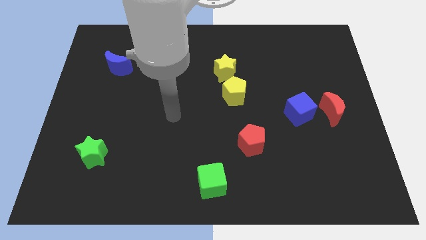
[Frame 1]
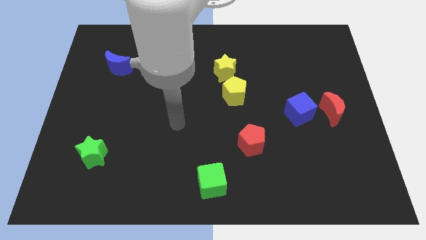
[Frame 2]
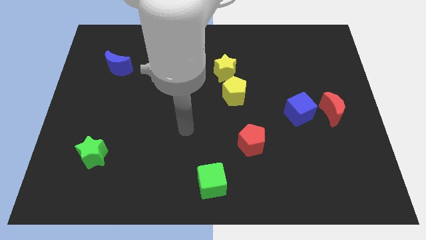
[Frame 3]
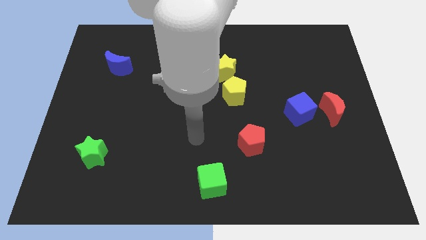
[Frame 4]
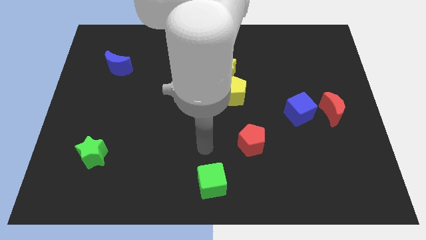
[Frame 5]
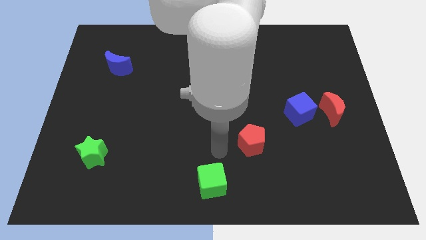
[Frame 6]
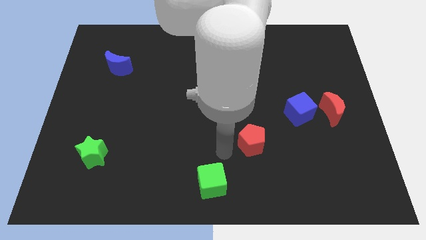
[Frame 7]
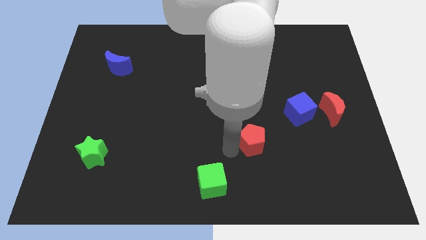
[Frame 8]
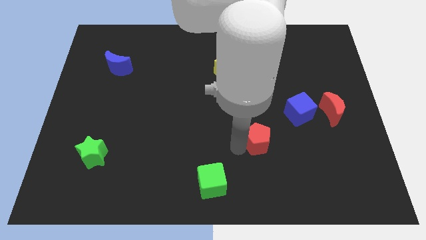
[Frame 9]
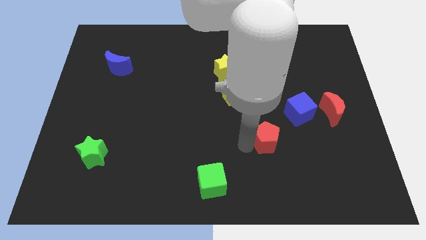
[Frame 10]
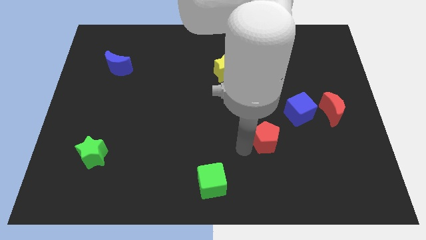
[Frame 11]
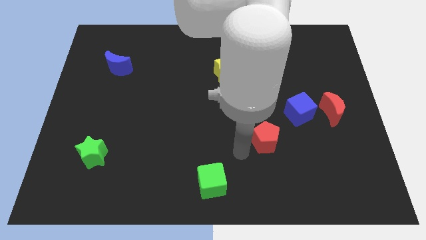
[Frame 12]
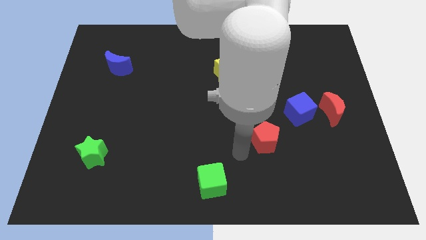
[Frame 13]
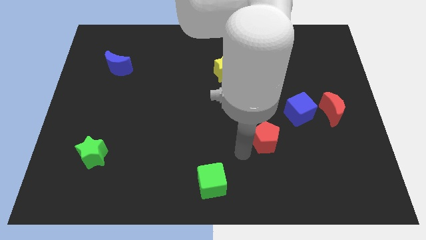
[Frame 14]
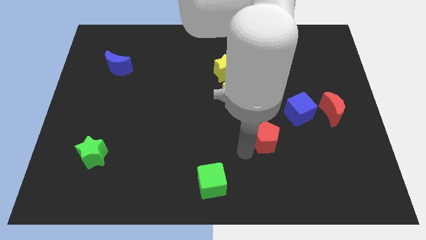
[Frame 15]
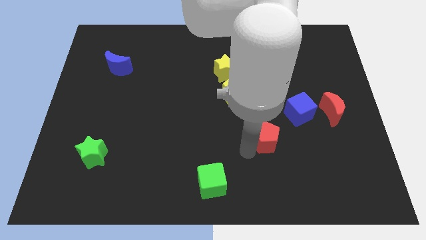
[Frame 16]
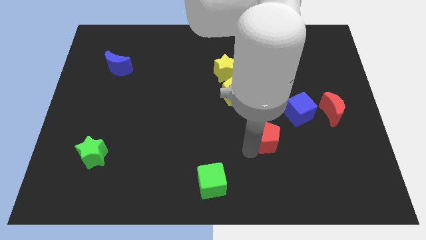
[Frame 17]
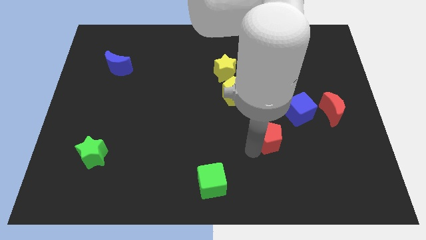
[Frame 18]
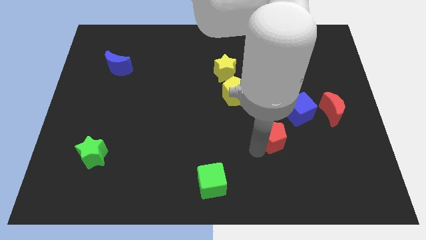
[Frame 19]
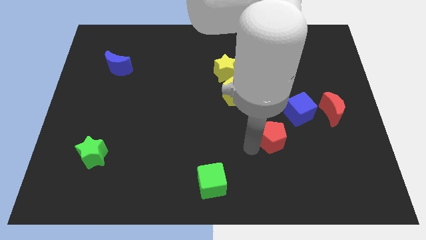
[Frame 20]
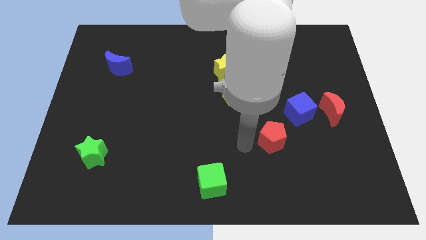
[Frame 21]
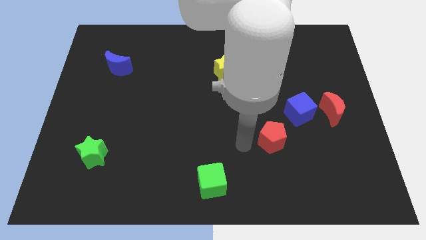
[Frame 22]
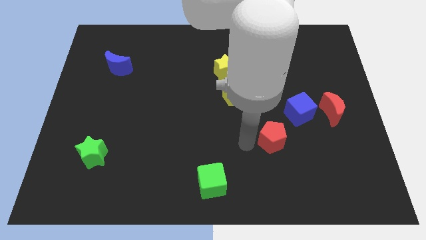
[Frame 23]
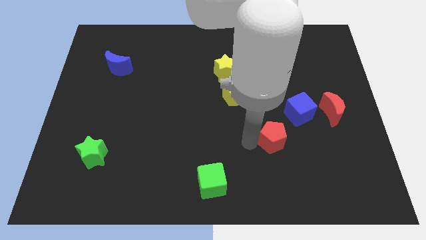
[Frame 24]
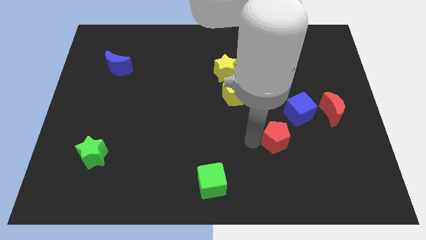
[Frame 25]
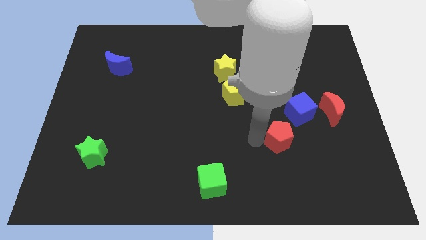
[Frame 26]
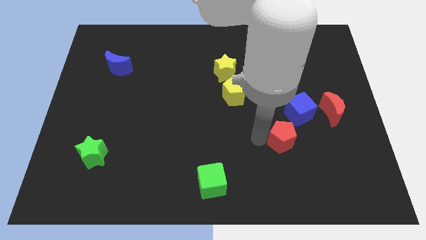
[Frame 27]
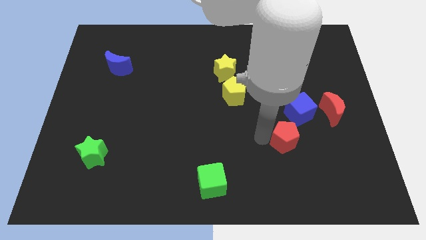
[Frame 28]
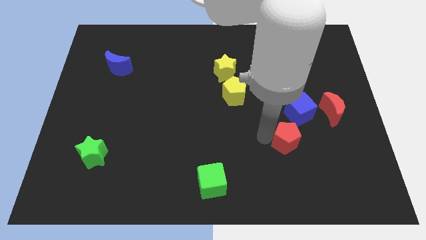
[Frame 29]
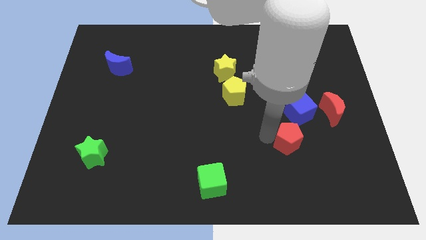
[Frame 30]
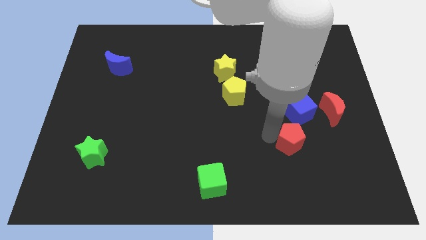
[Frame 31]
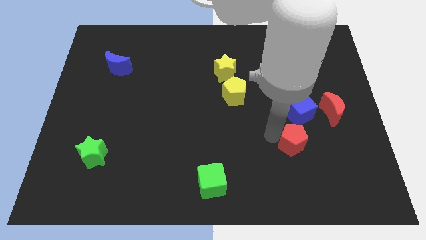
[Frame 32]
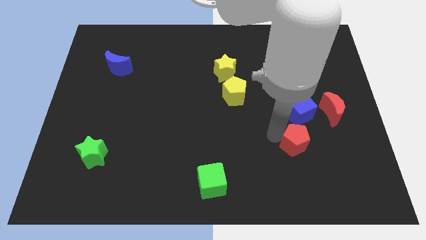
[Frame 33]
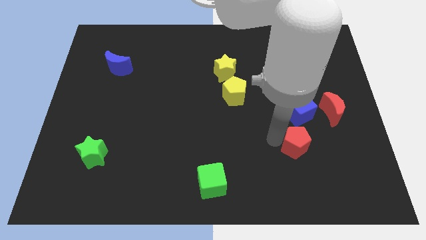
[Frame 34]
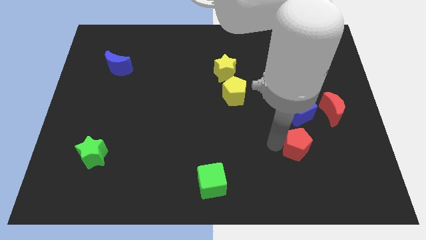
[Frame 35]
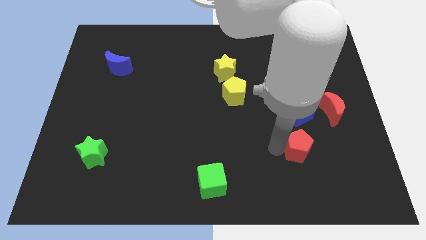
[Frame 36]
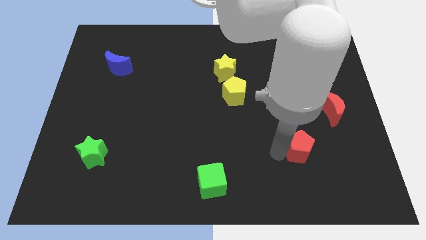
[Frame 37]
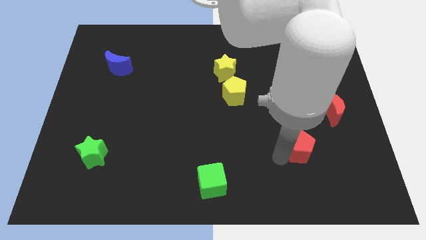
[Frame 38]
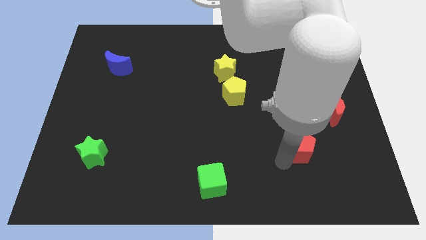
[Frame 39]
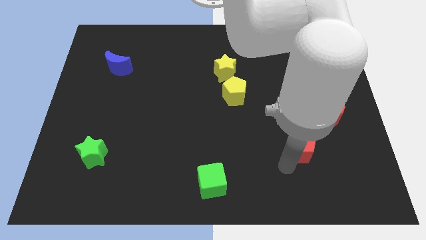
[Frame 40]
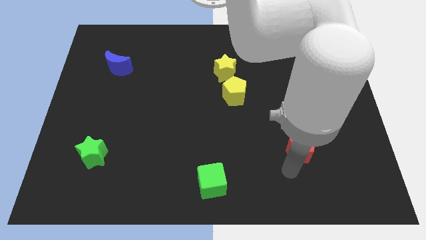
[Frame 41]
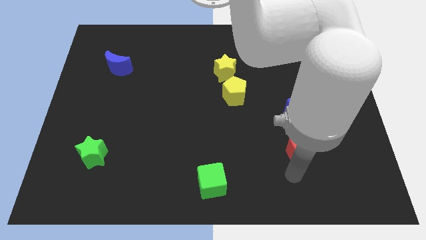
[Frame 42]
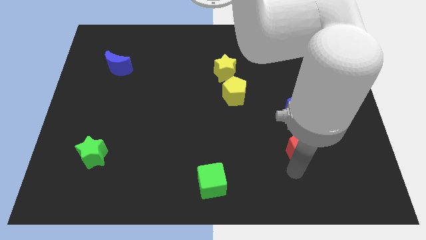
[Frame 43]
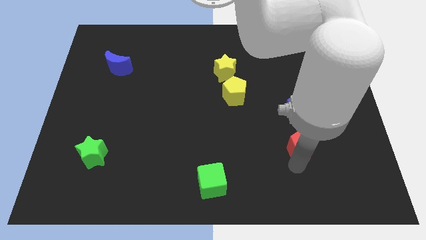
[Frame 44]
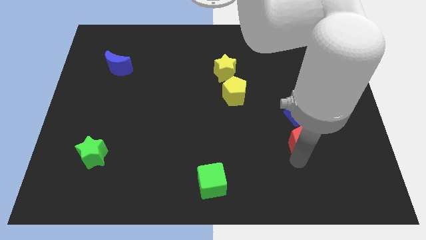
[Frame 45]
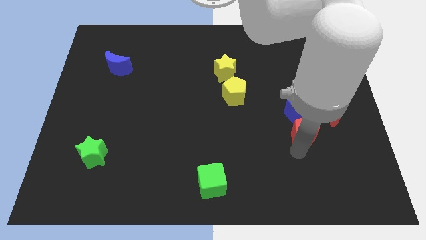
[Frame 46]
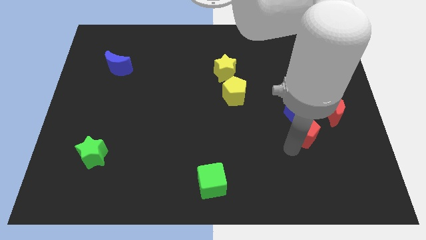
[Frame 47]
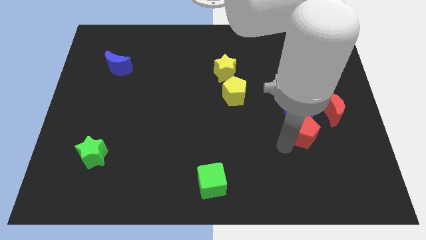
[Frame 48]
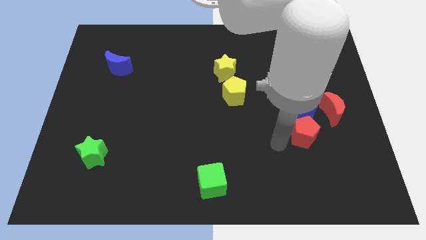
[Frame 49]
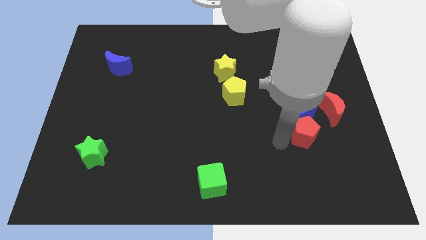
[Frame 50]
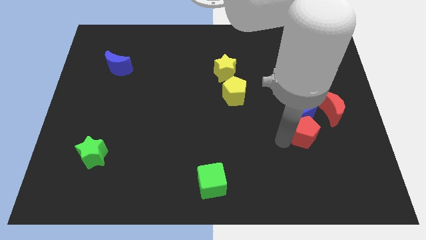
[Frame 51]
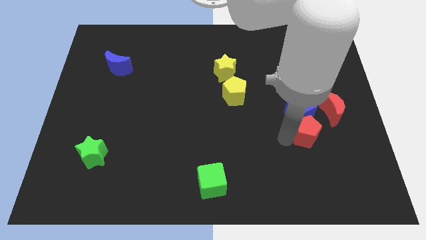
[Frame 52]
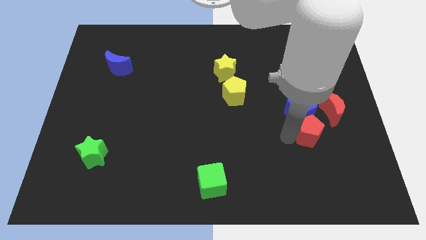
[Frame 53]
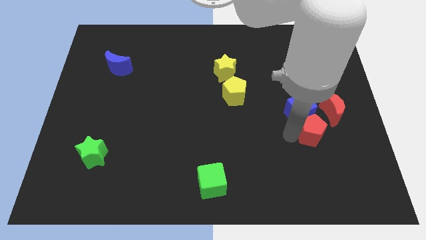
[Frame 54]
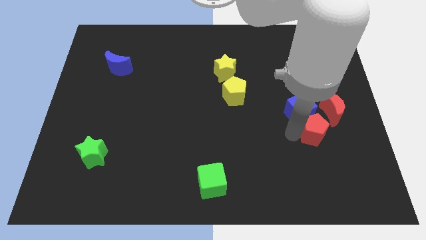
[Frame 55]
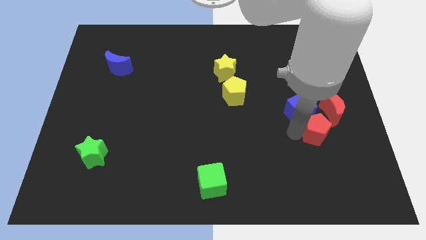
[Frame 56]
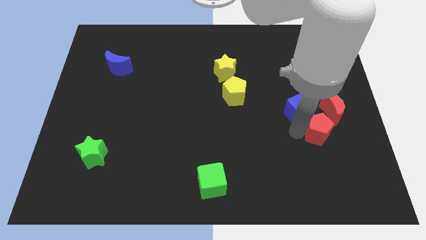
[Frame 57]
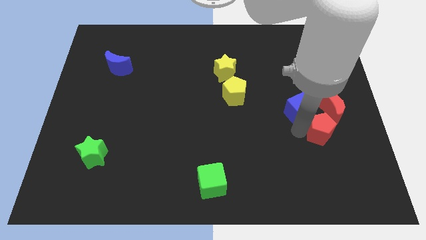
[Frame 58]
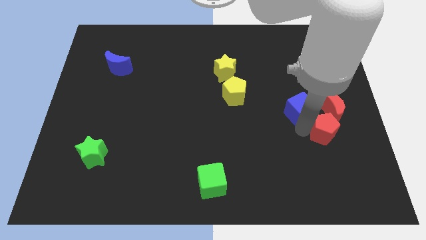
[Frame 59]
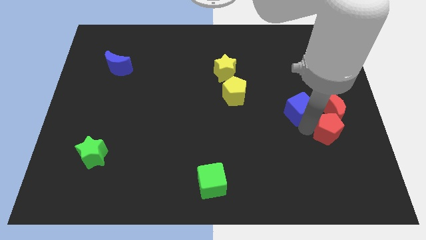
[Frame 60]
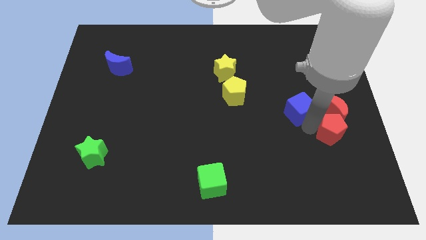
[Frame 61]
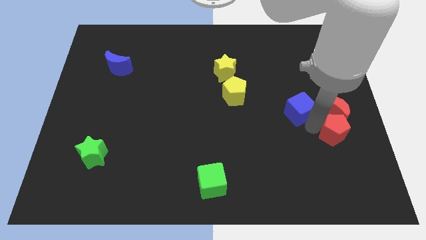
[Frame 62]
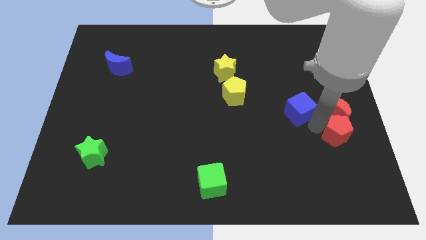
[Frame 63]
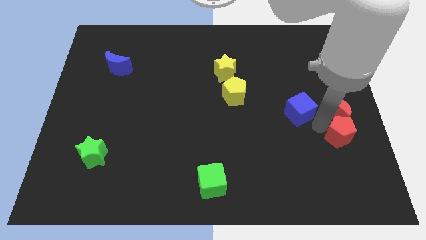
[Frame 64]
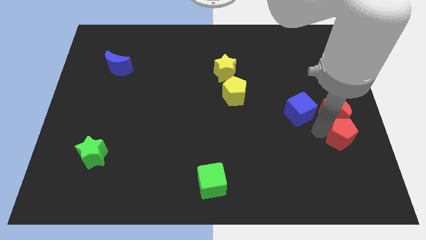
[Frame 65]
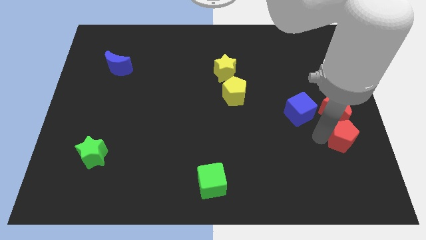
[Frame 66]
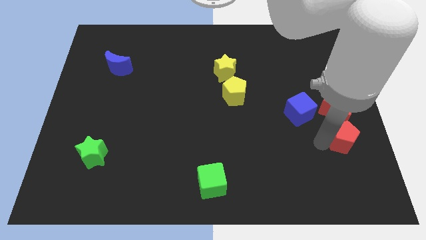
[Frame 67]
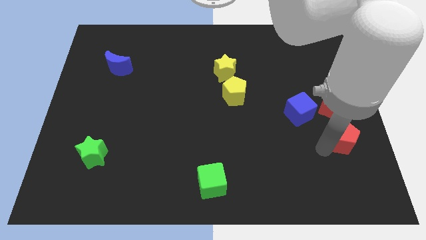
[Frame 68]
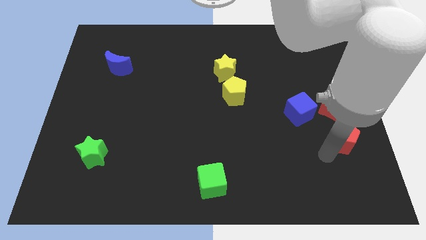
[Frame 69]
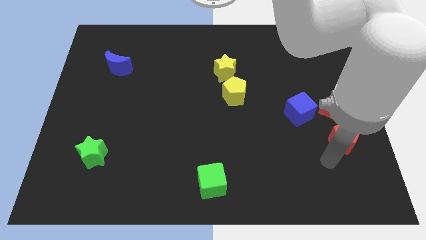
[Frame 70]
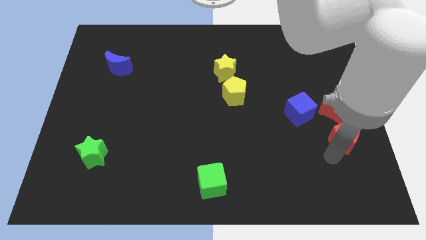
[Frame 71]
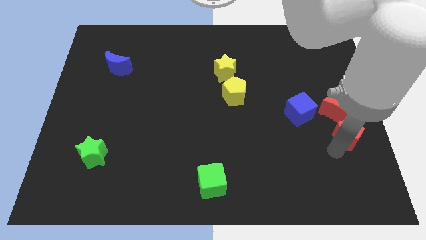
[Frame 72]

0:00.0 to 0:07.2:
put the red pentagon to the right side of the board
